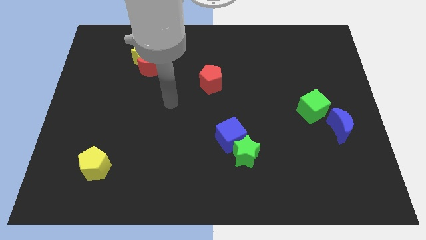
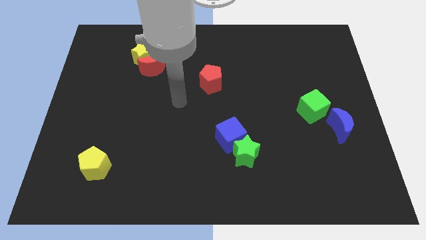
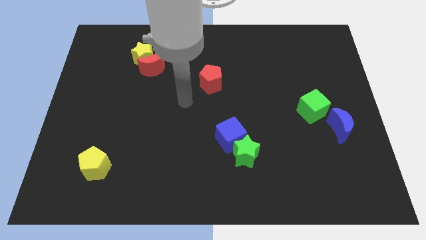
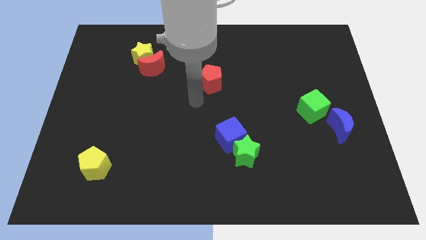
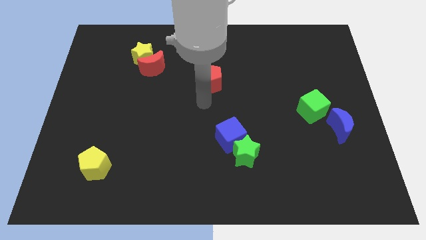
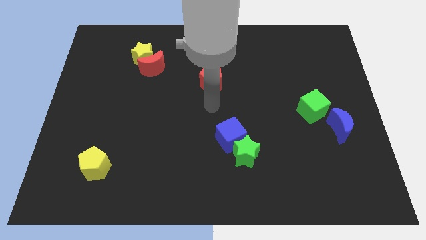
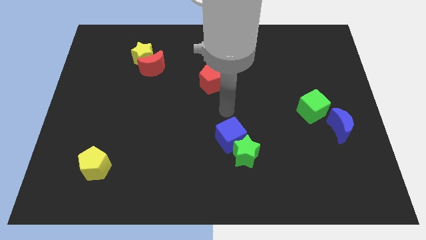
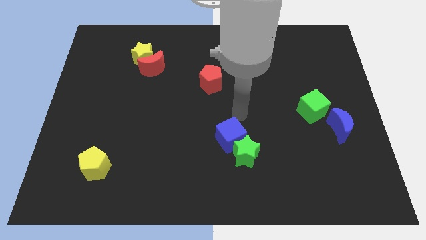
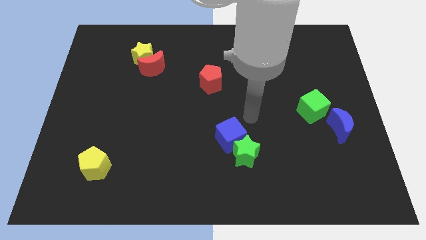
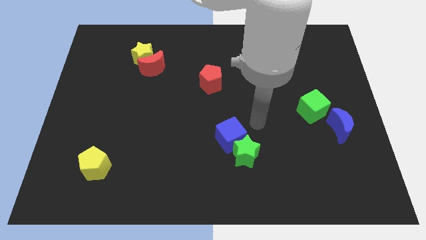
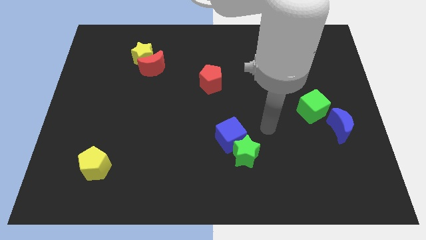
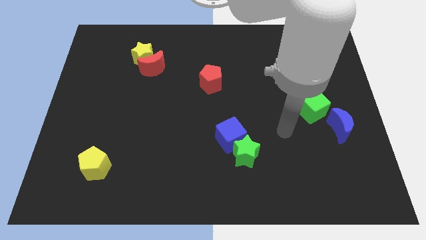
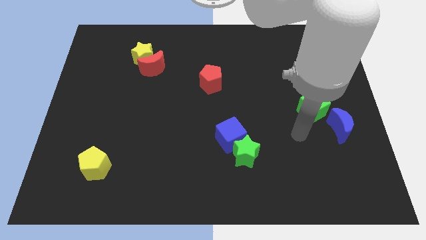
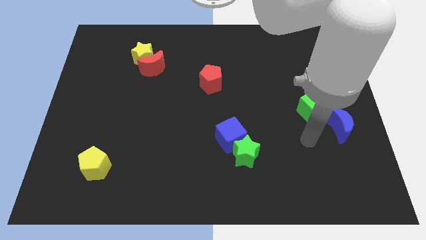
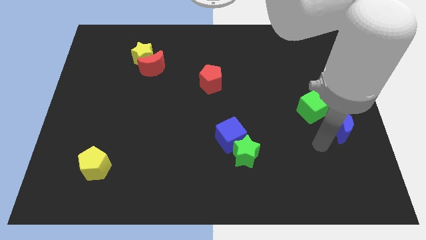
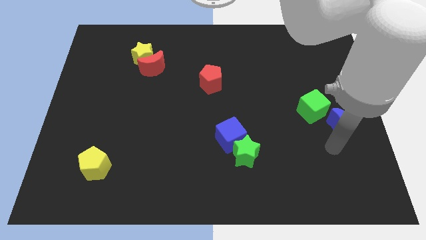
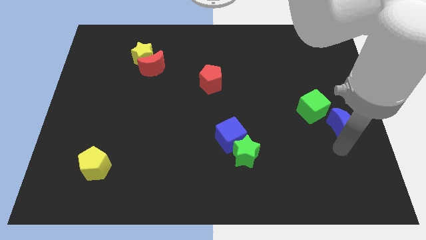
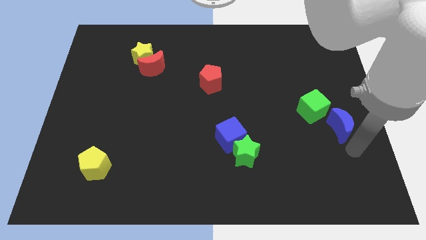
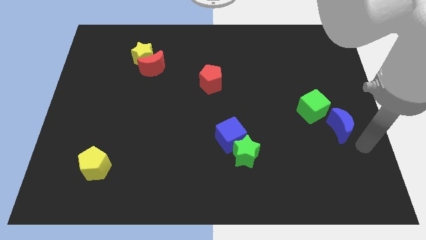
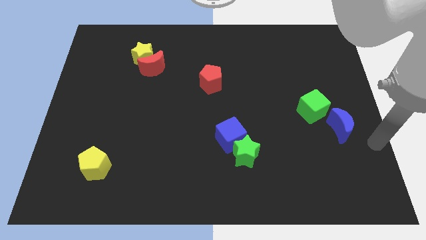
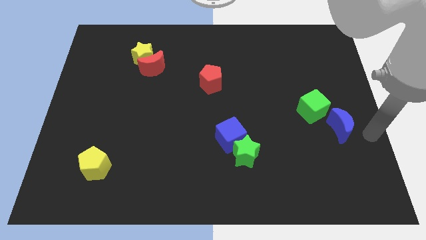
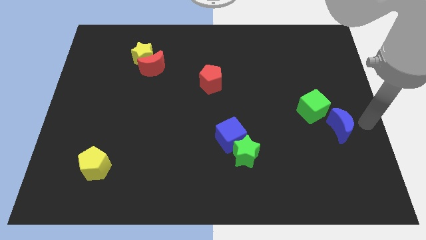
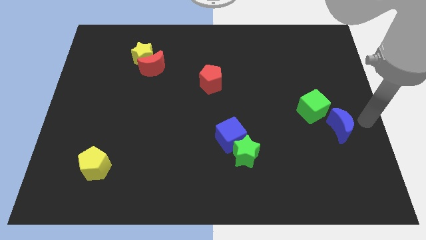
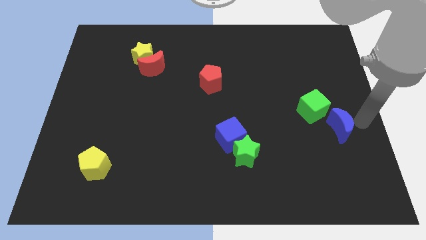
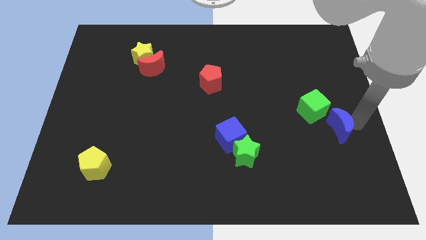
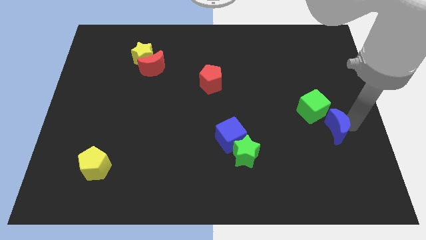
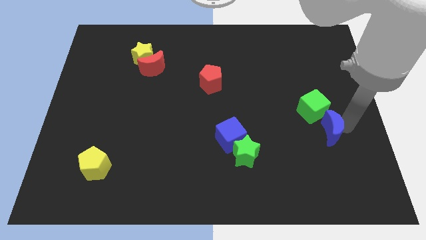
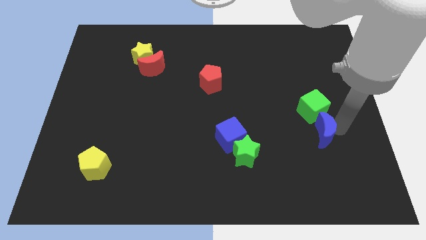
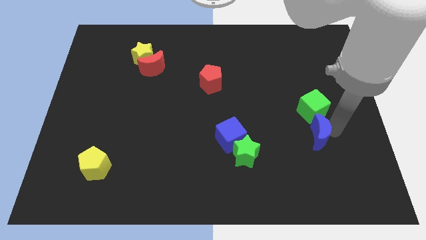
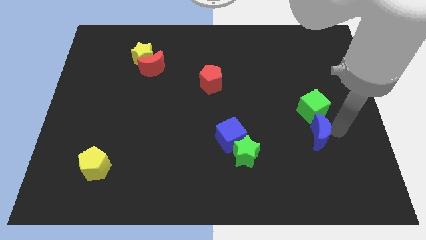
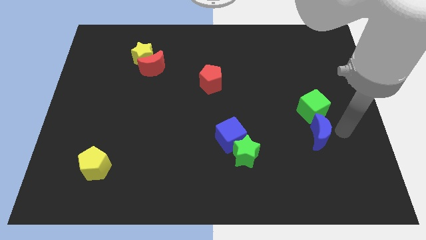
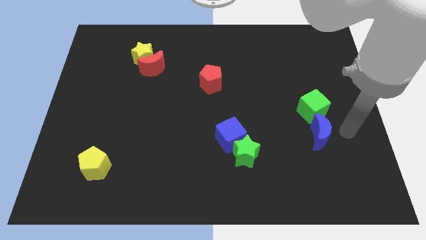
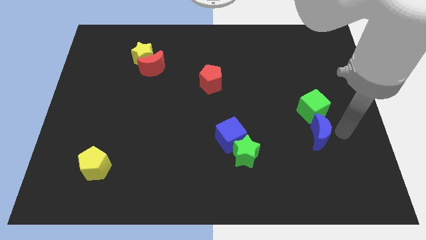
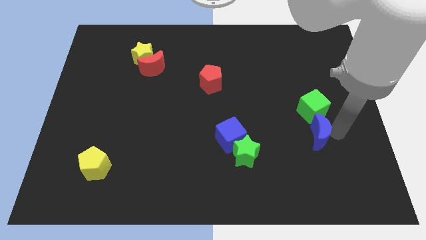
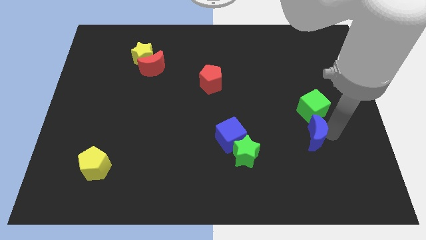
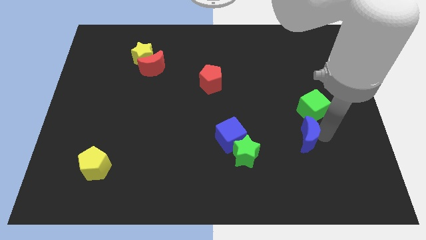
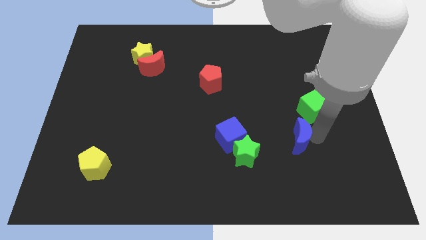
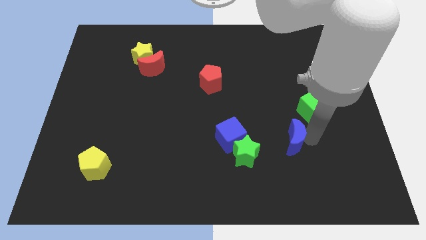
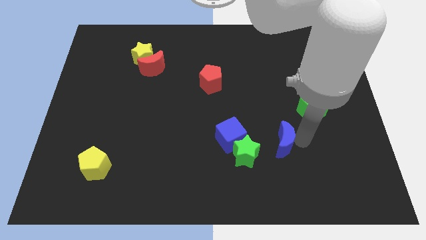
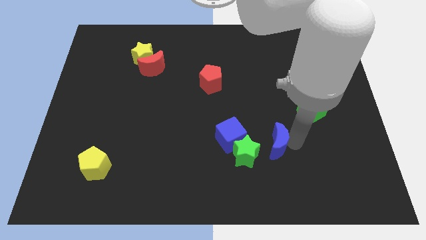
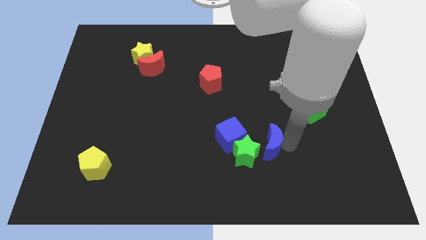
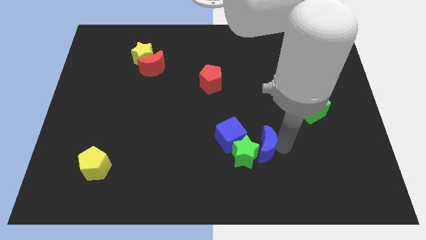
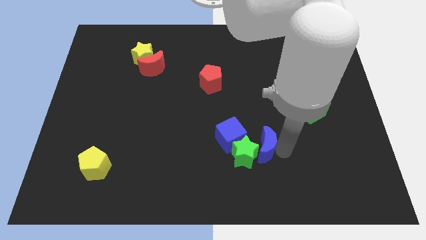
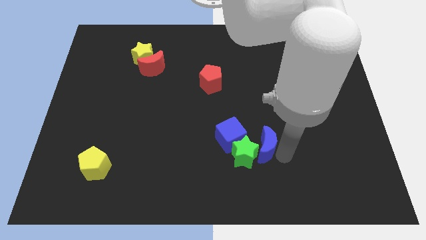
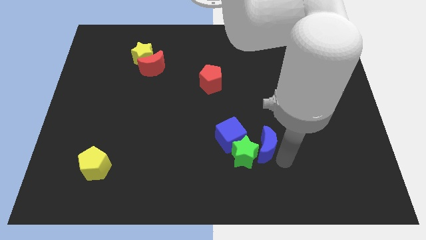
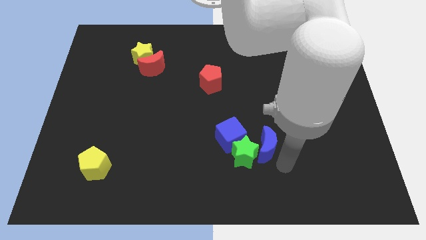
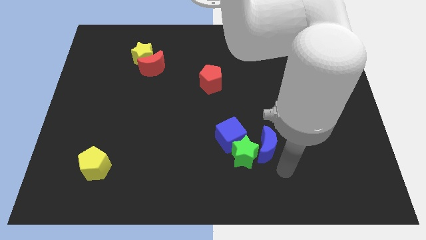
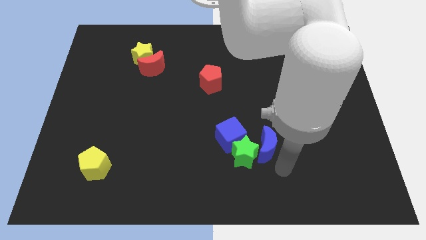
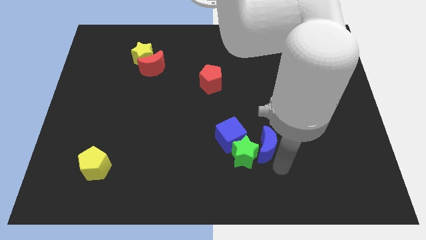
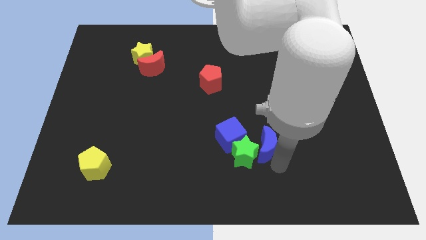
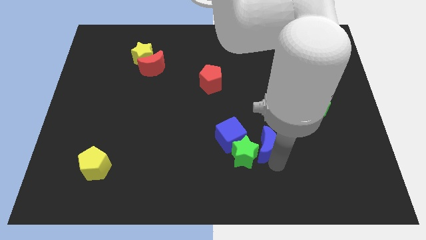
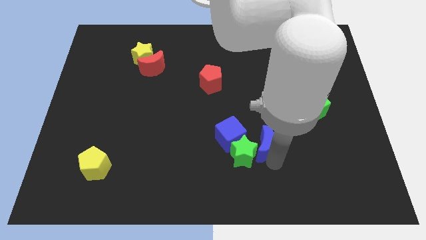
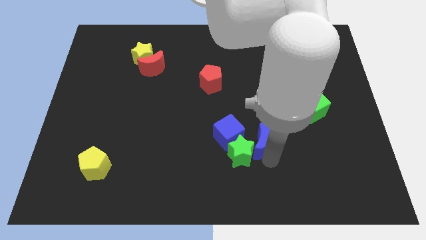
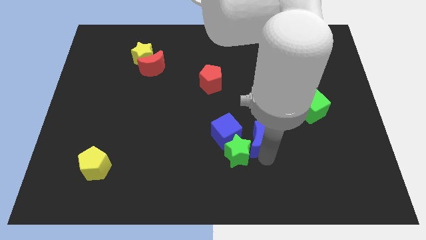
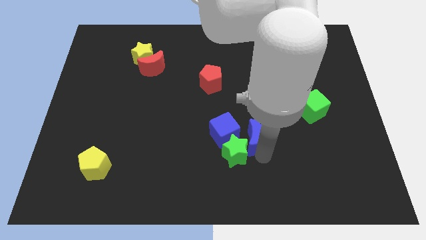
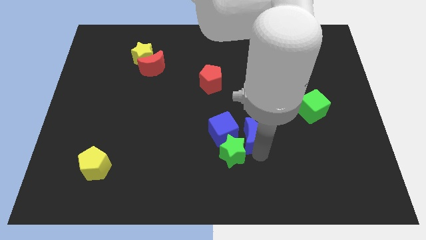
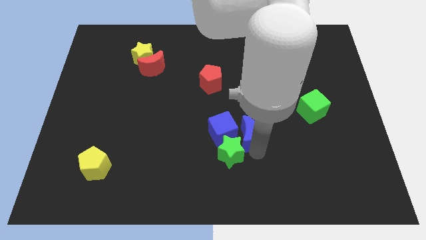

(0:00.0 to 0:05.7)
slide the blue moon close to the blue cube

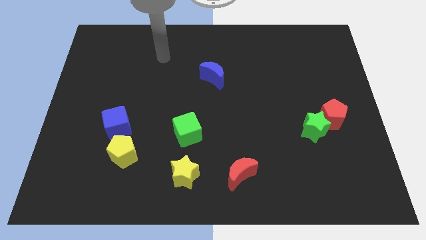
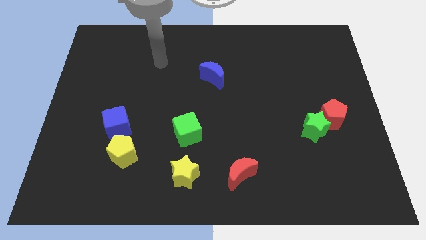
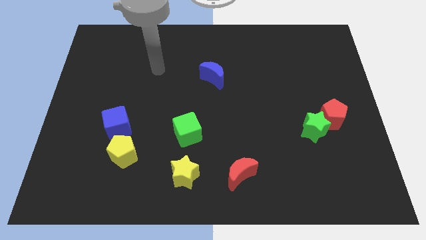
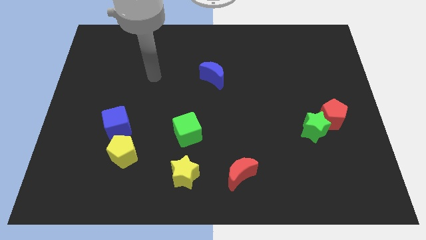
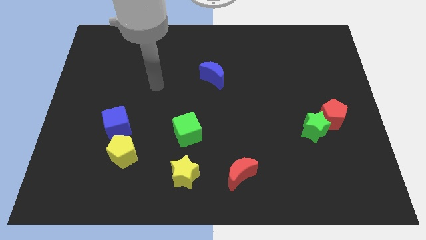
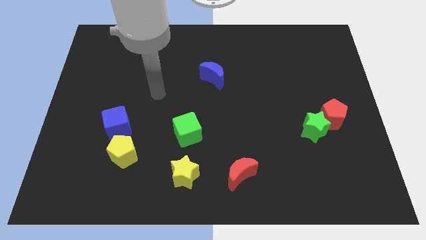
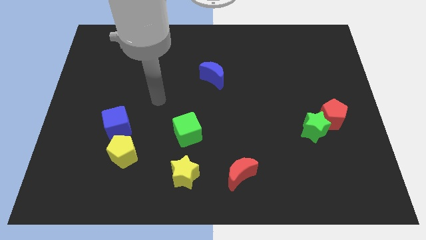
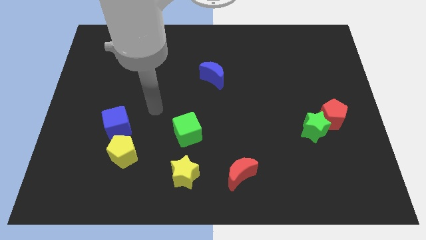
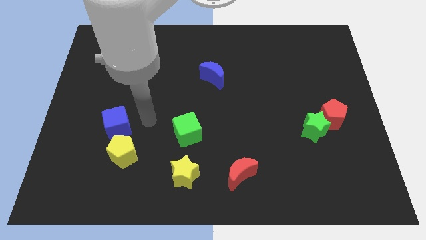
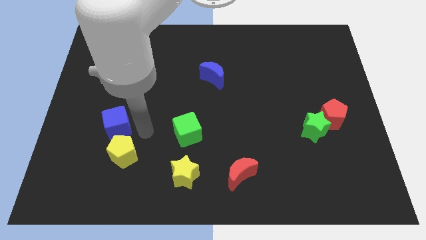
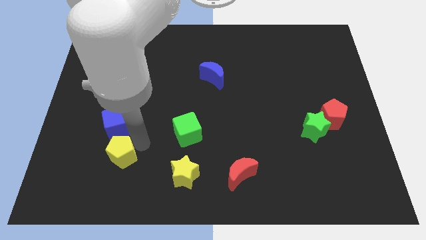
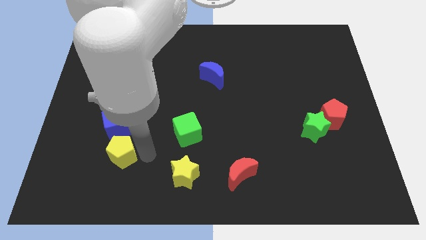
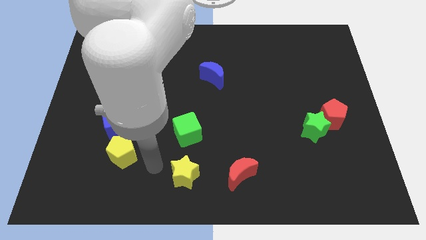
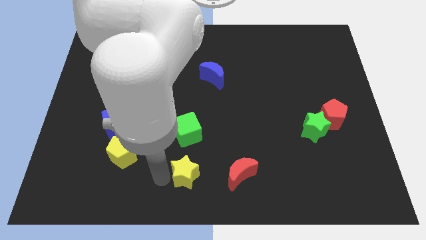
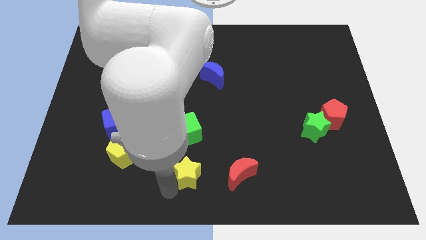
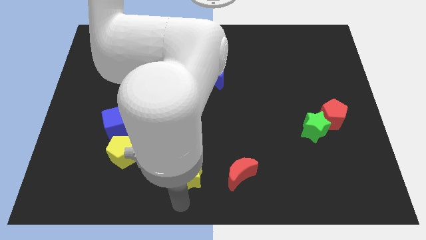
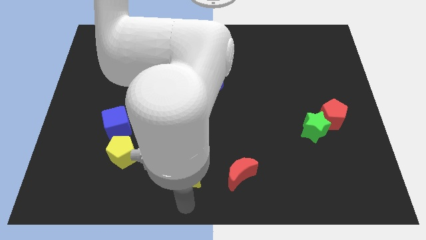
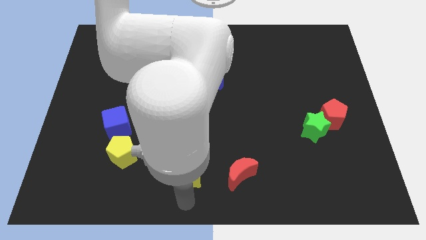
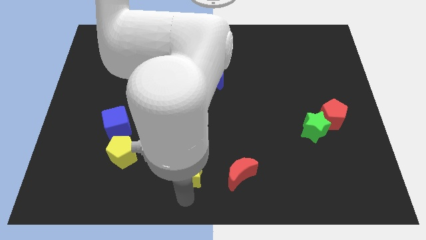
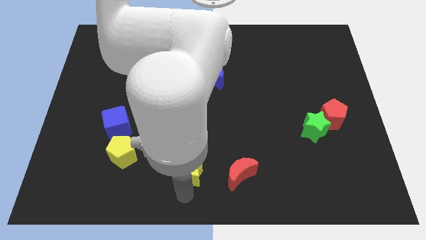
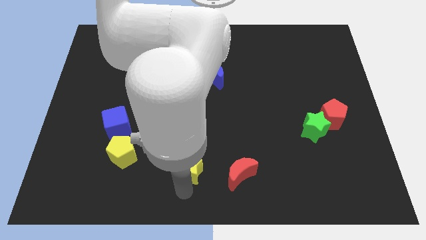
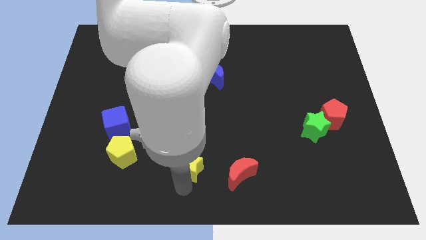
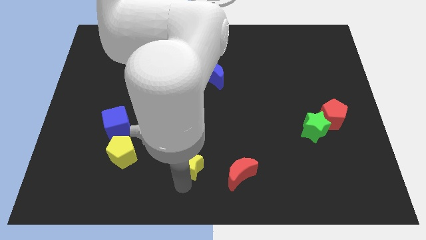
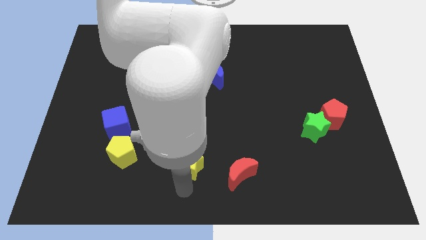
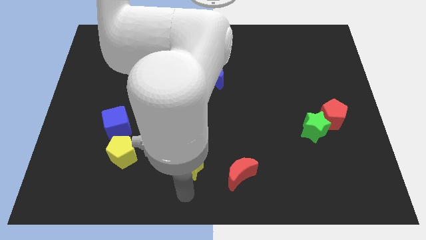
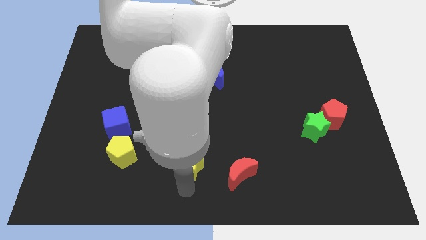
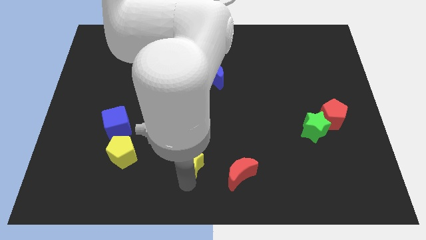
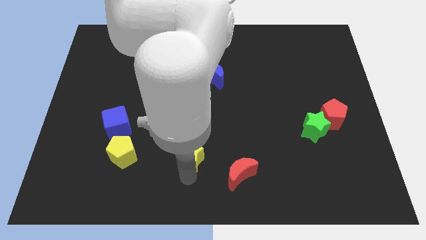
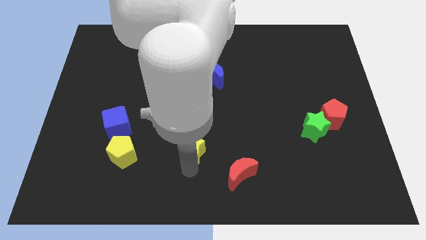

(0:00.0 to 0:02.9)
slide the yellow star towards the green cube
